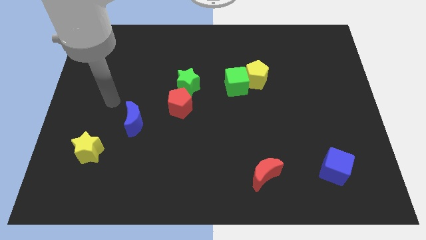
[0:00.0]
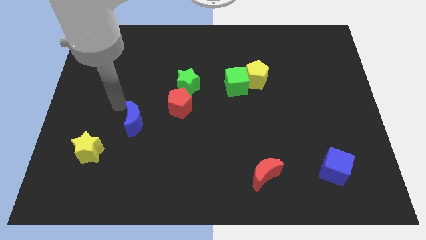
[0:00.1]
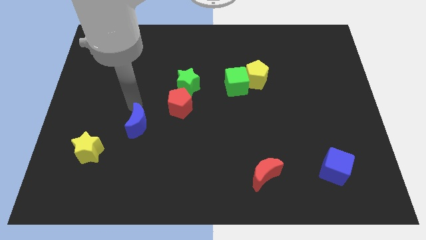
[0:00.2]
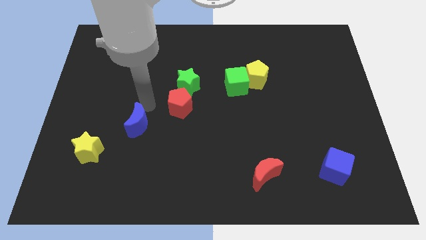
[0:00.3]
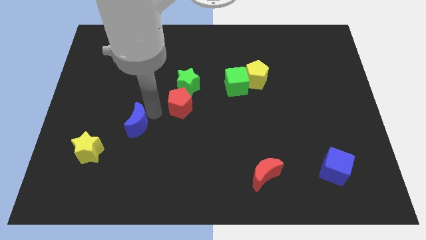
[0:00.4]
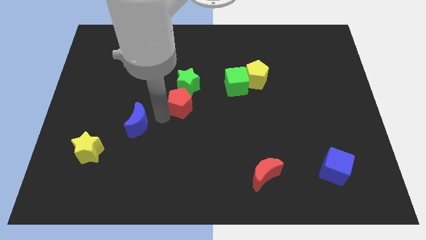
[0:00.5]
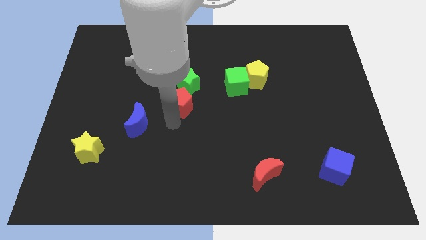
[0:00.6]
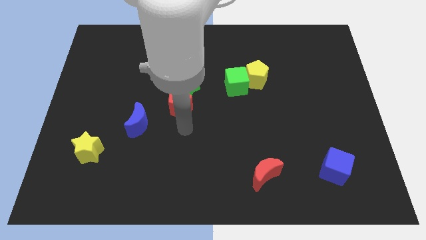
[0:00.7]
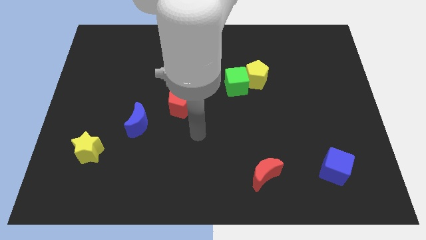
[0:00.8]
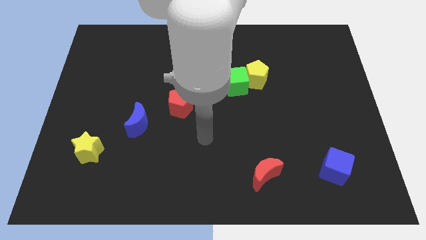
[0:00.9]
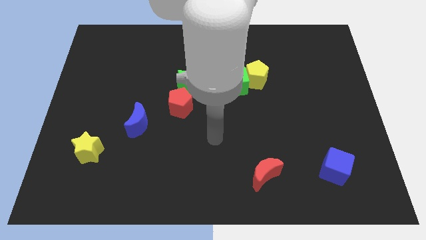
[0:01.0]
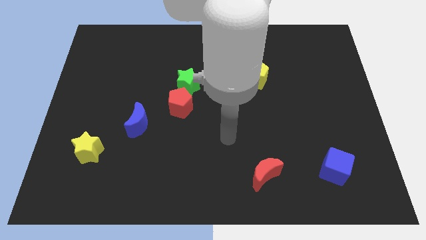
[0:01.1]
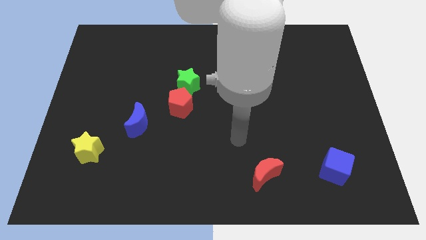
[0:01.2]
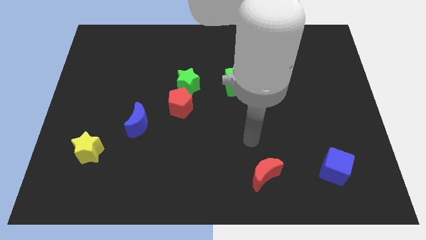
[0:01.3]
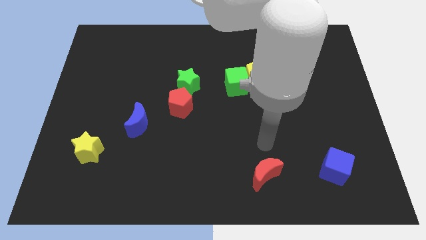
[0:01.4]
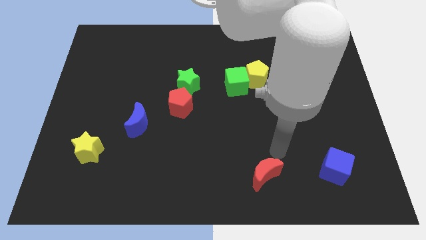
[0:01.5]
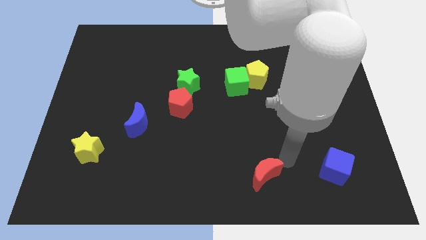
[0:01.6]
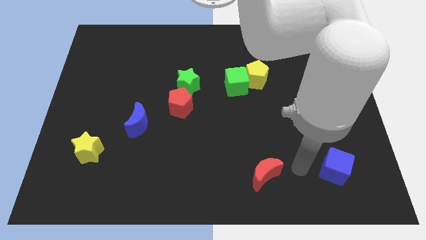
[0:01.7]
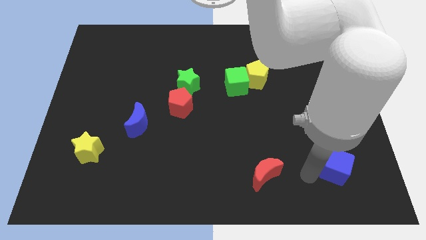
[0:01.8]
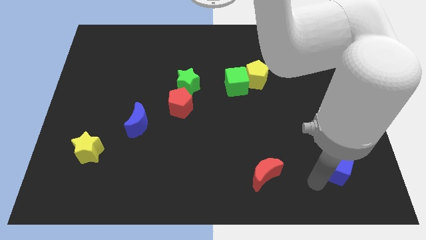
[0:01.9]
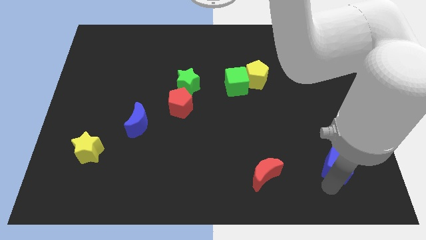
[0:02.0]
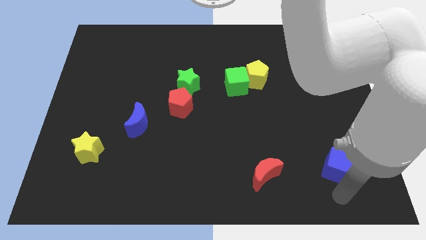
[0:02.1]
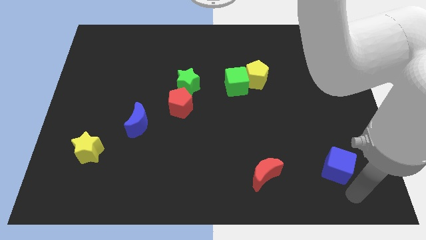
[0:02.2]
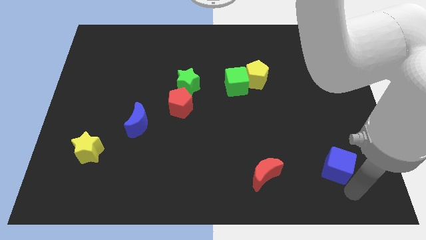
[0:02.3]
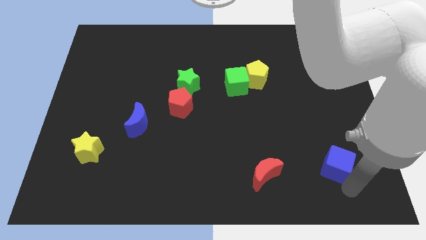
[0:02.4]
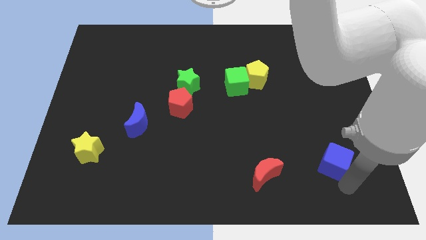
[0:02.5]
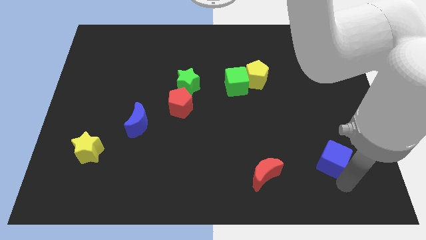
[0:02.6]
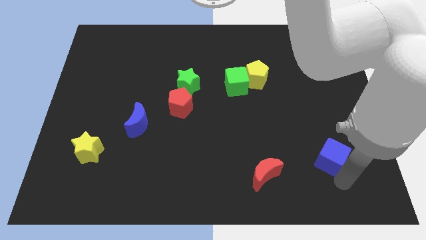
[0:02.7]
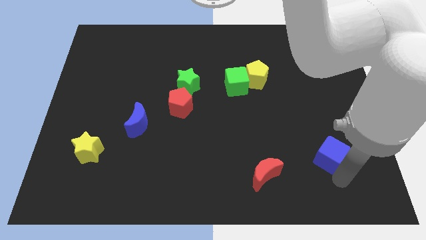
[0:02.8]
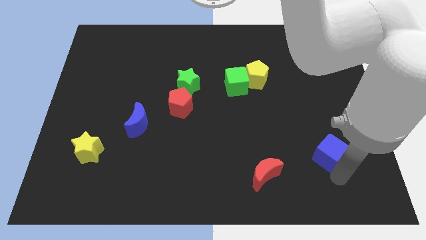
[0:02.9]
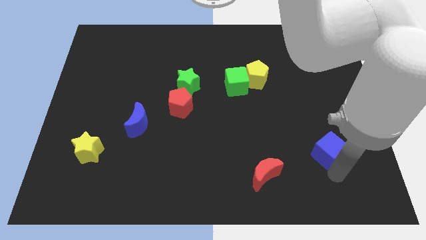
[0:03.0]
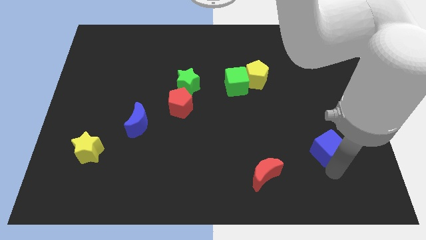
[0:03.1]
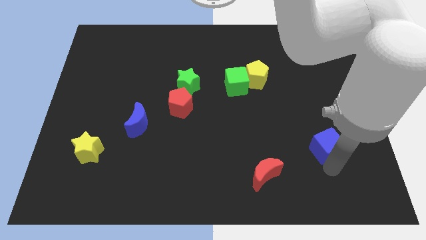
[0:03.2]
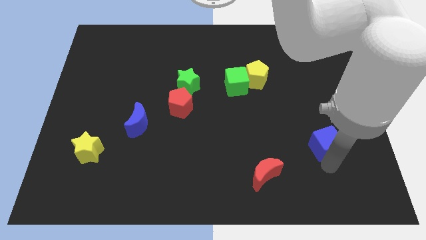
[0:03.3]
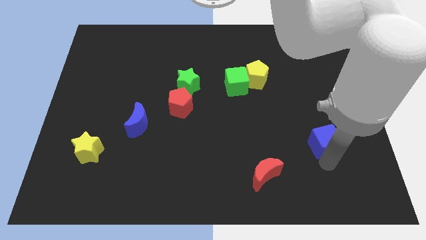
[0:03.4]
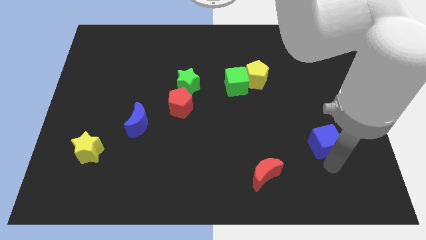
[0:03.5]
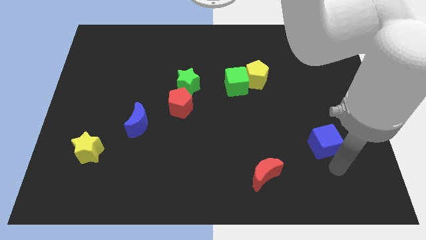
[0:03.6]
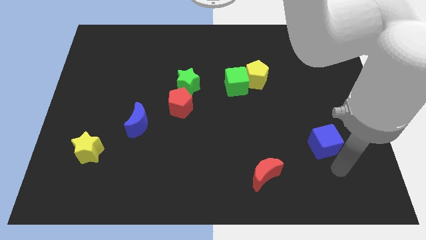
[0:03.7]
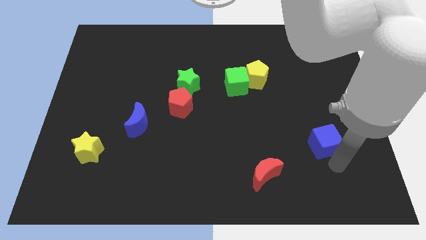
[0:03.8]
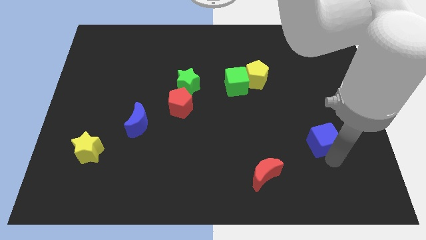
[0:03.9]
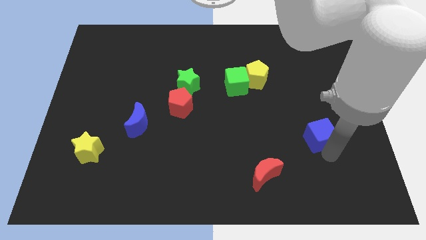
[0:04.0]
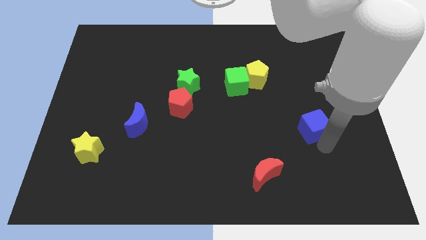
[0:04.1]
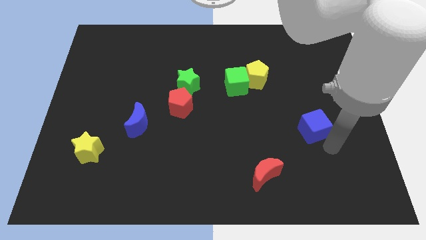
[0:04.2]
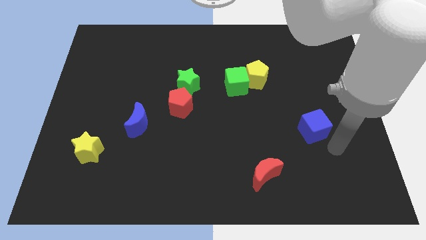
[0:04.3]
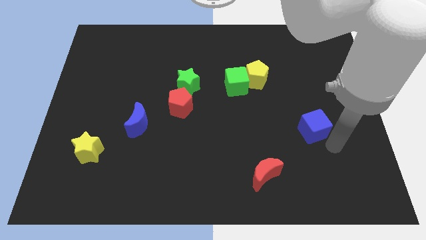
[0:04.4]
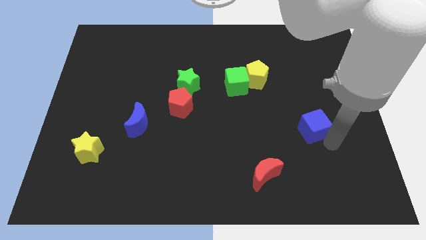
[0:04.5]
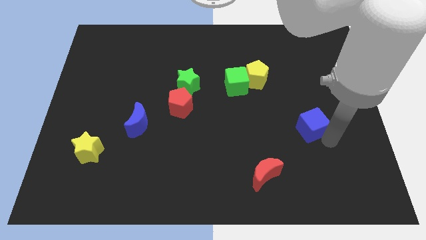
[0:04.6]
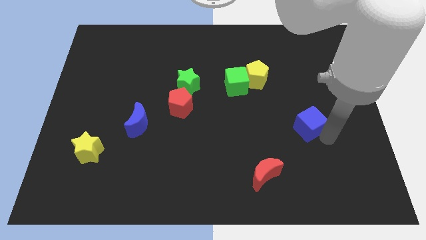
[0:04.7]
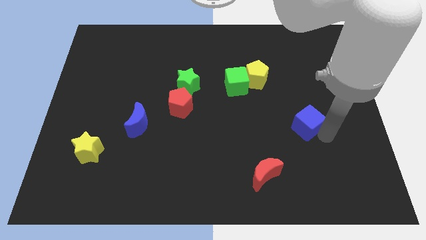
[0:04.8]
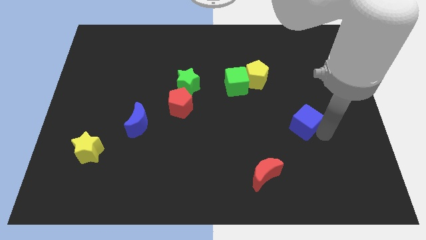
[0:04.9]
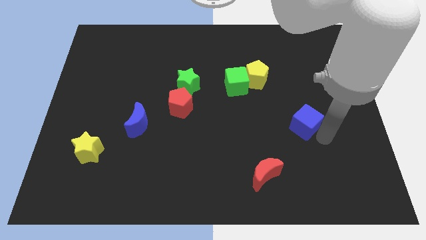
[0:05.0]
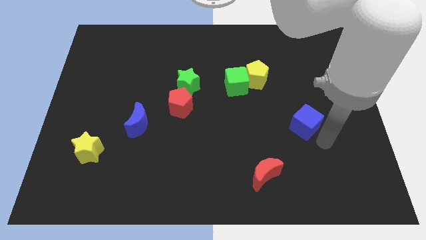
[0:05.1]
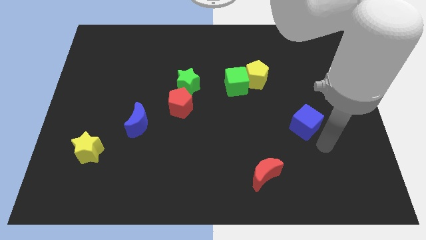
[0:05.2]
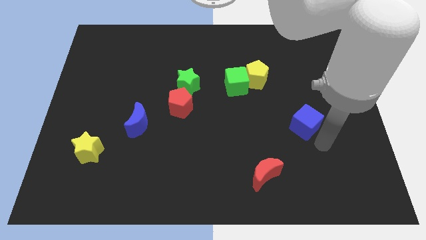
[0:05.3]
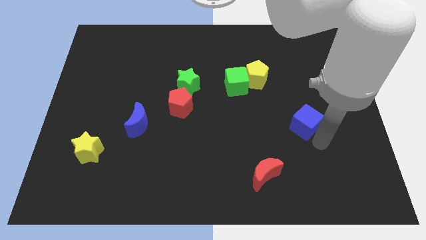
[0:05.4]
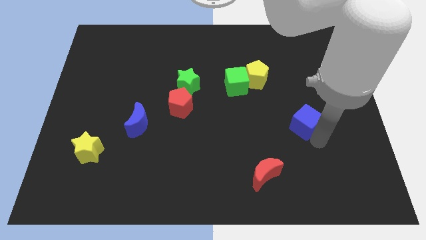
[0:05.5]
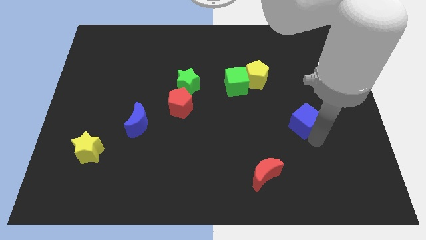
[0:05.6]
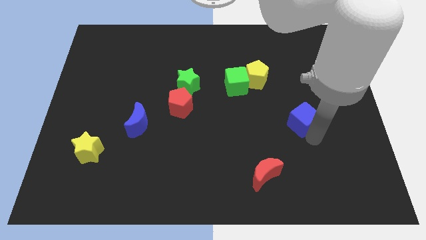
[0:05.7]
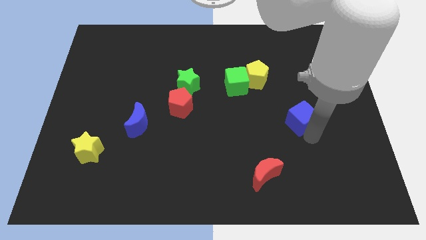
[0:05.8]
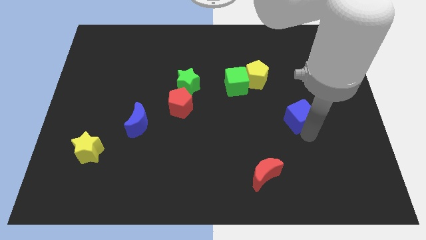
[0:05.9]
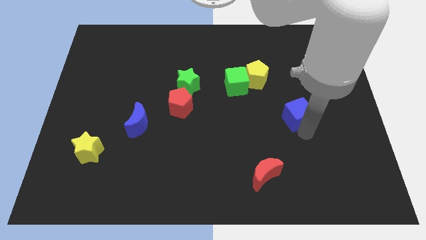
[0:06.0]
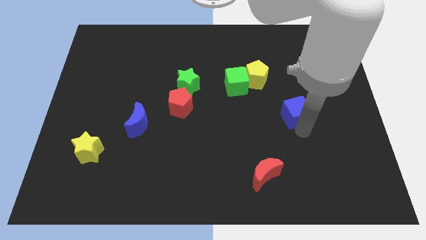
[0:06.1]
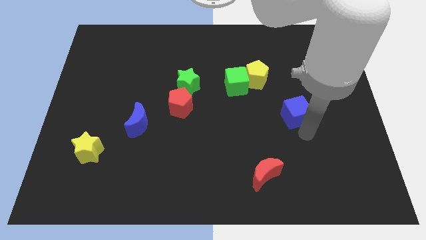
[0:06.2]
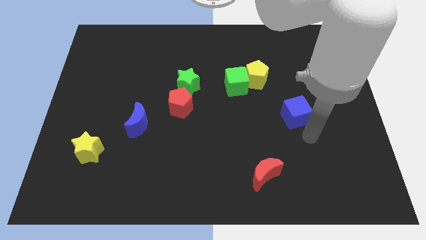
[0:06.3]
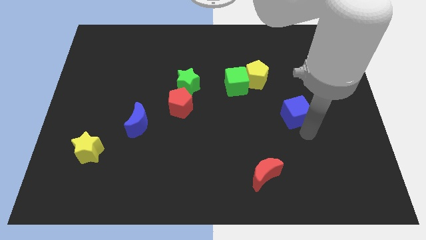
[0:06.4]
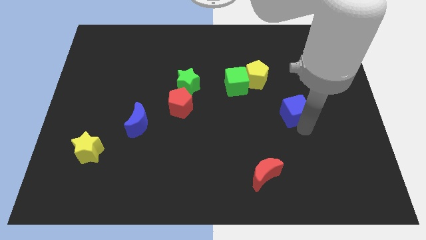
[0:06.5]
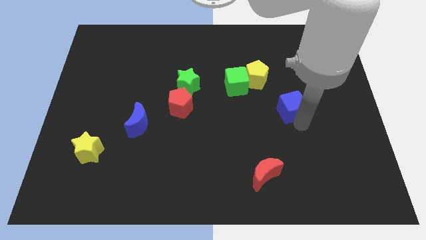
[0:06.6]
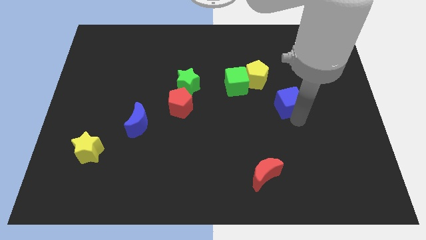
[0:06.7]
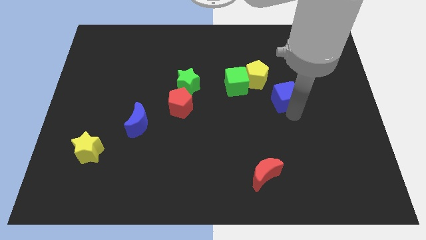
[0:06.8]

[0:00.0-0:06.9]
push the blue cube right of the green cube
